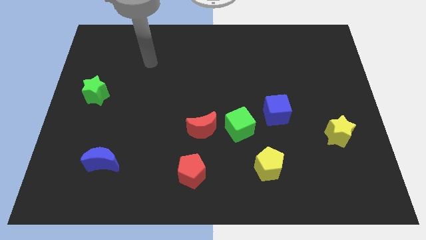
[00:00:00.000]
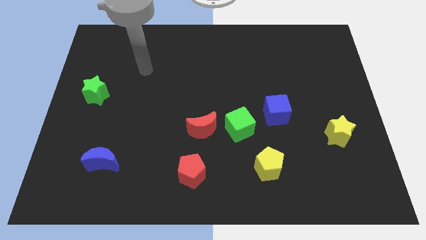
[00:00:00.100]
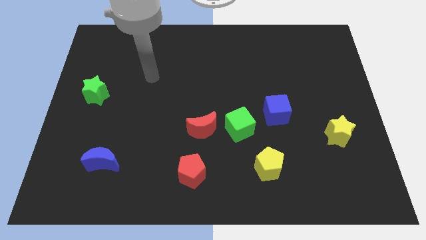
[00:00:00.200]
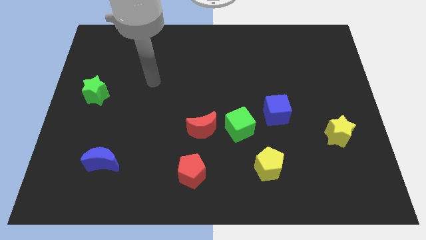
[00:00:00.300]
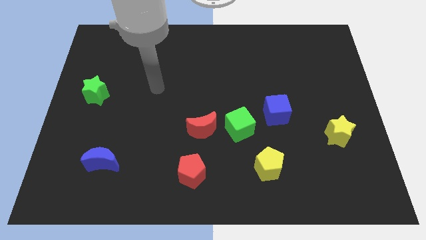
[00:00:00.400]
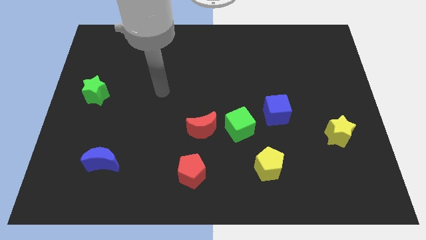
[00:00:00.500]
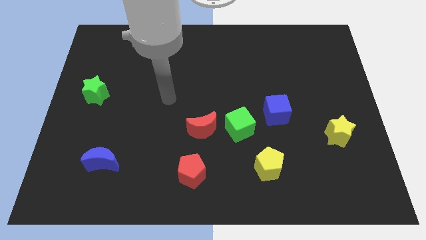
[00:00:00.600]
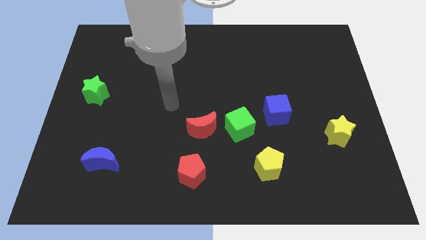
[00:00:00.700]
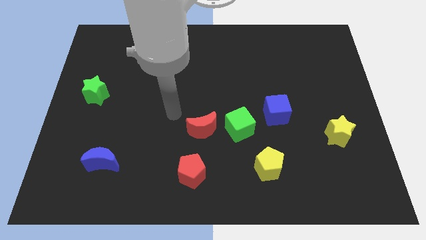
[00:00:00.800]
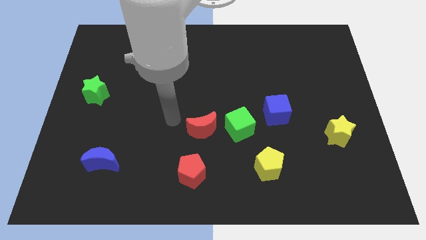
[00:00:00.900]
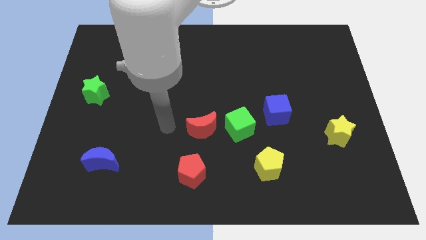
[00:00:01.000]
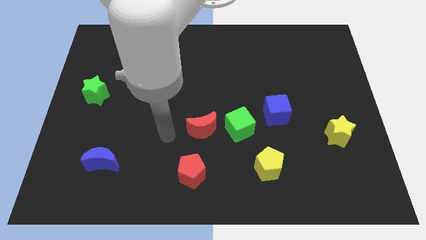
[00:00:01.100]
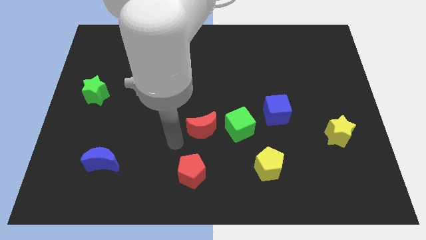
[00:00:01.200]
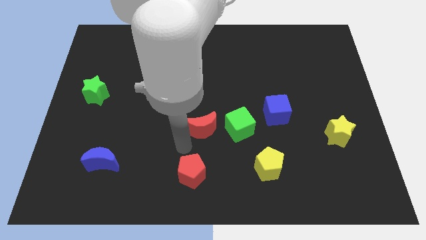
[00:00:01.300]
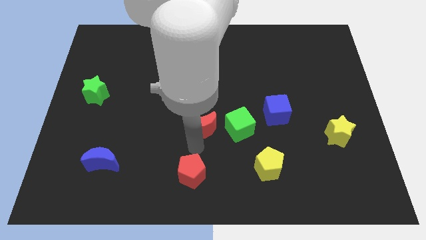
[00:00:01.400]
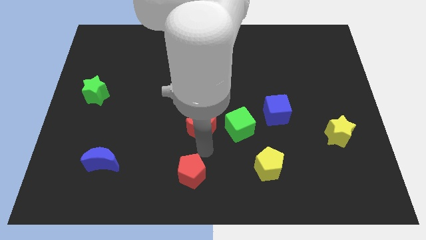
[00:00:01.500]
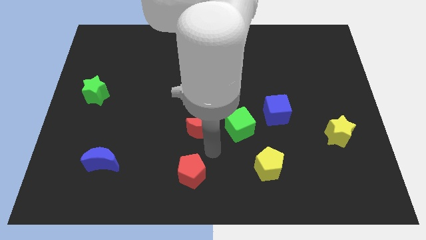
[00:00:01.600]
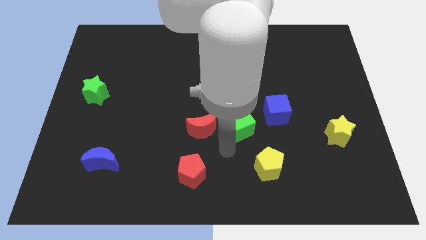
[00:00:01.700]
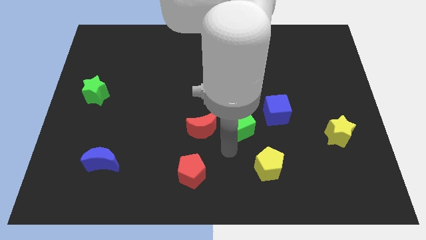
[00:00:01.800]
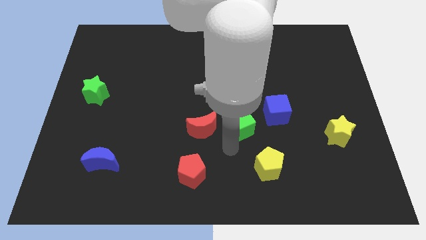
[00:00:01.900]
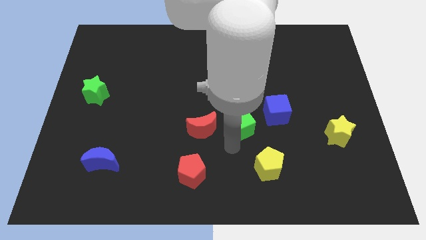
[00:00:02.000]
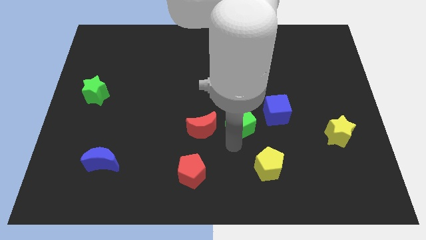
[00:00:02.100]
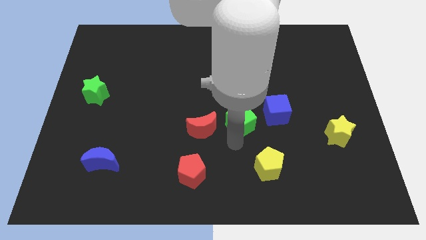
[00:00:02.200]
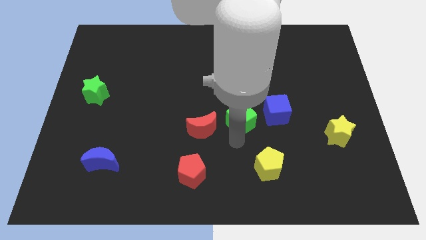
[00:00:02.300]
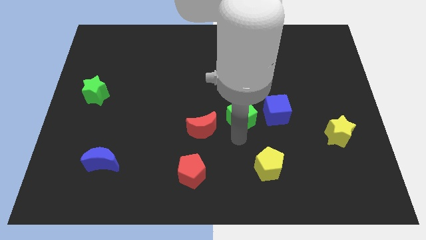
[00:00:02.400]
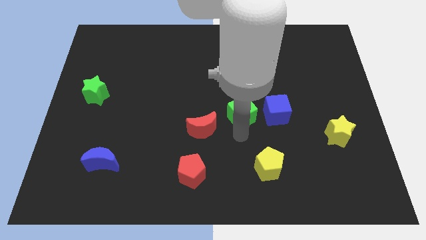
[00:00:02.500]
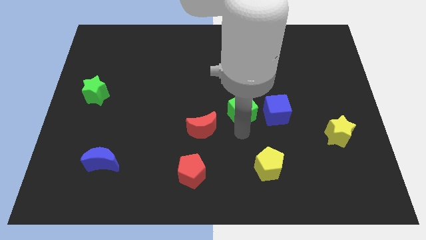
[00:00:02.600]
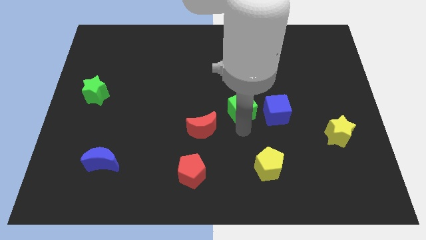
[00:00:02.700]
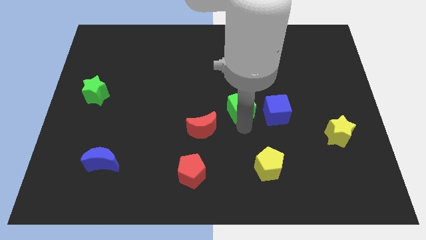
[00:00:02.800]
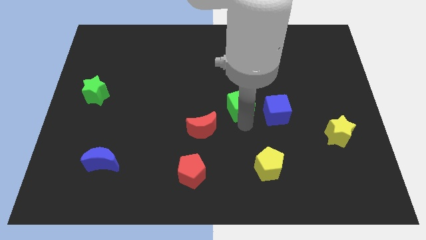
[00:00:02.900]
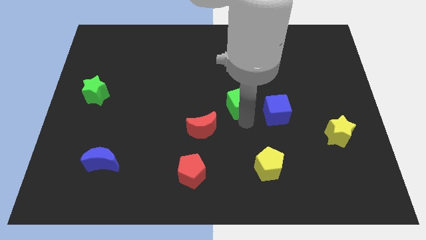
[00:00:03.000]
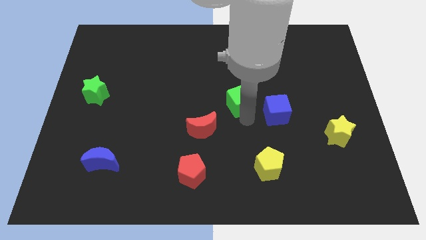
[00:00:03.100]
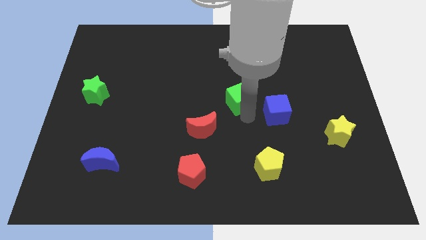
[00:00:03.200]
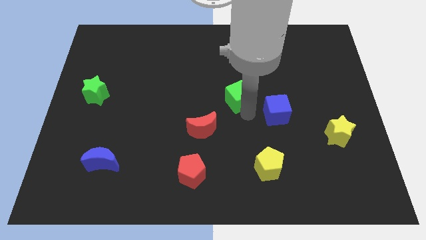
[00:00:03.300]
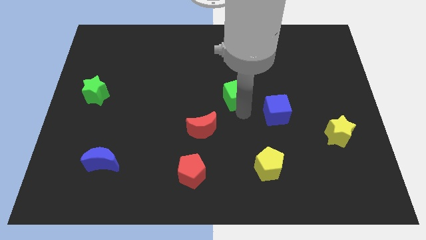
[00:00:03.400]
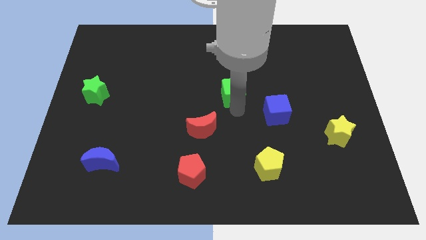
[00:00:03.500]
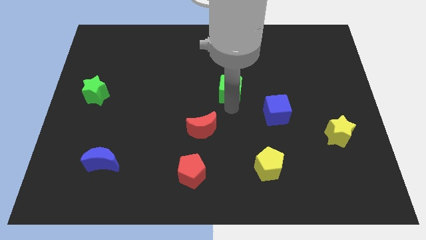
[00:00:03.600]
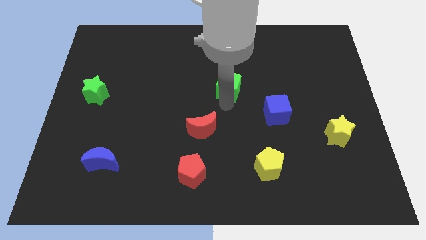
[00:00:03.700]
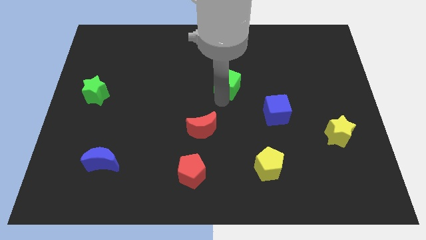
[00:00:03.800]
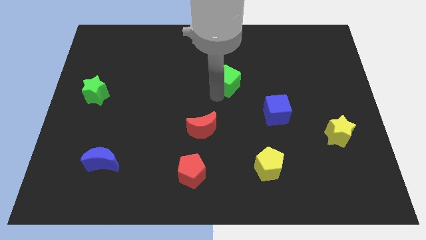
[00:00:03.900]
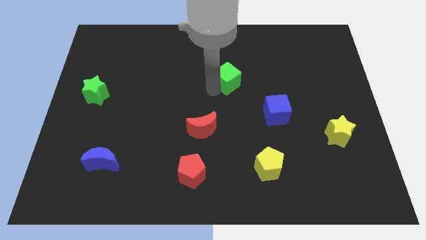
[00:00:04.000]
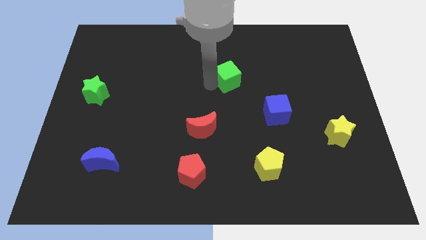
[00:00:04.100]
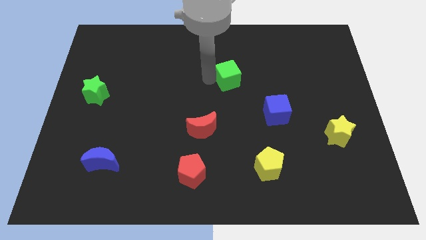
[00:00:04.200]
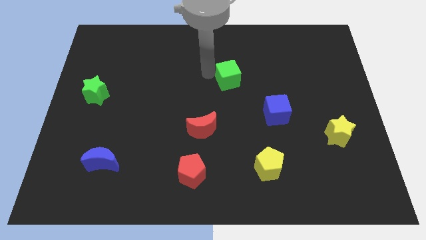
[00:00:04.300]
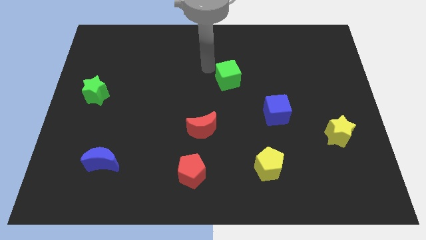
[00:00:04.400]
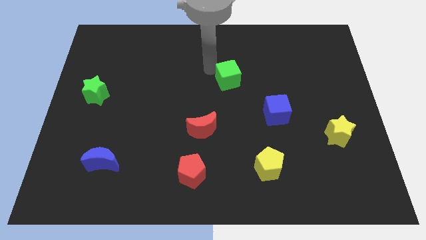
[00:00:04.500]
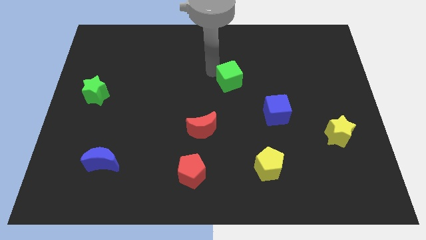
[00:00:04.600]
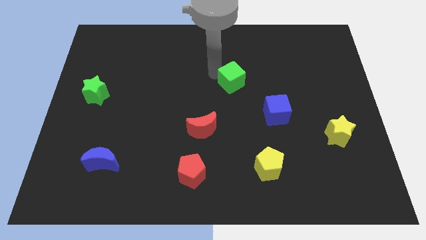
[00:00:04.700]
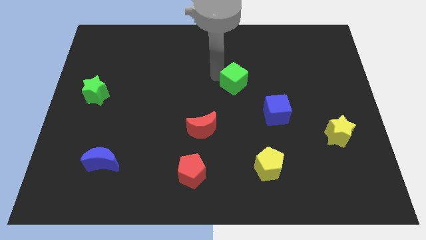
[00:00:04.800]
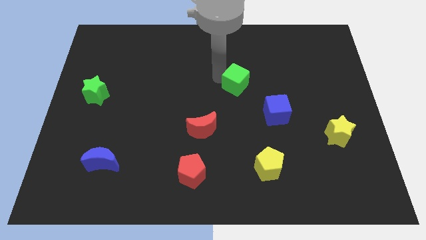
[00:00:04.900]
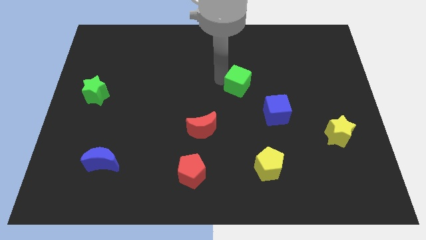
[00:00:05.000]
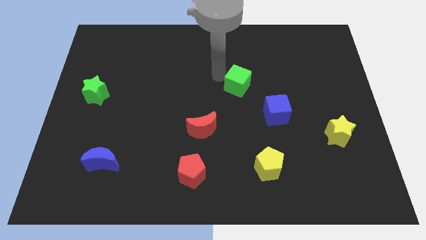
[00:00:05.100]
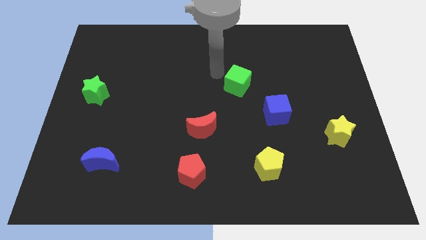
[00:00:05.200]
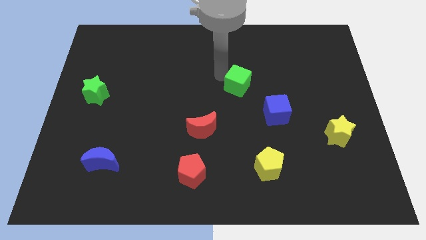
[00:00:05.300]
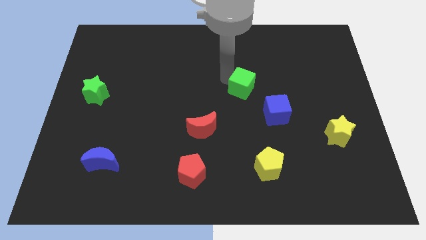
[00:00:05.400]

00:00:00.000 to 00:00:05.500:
slightly slide the green cube upwards and to the right diagonally

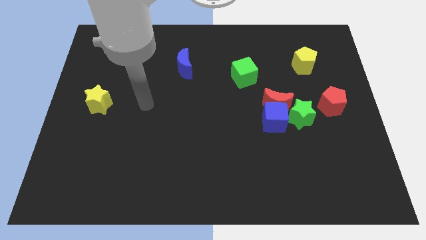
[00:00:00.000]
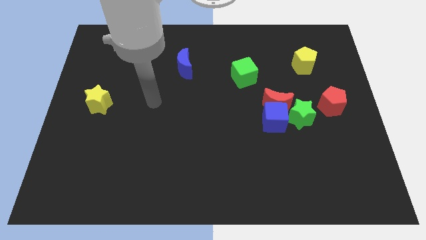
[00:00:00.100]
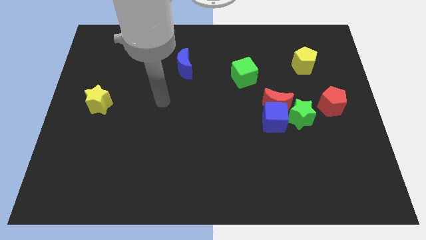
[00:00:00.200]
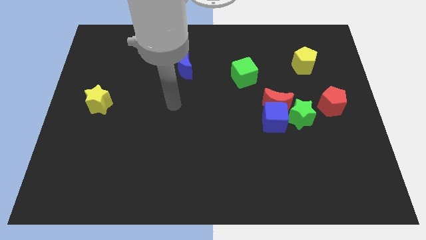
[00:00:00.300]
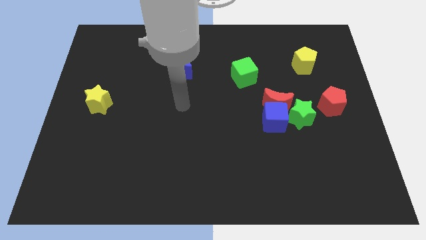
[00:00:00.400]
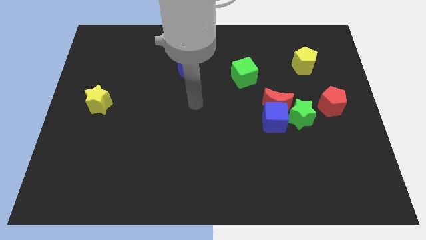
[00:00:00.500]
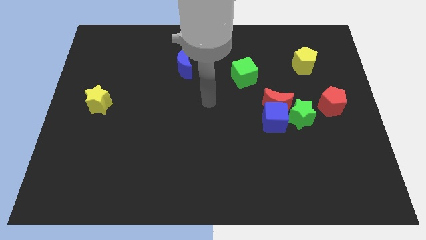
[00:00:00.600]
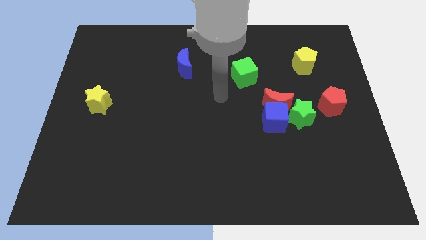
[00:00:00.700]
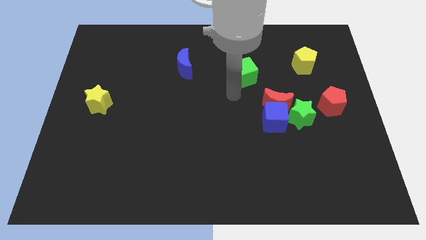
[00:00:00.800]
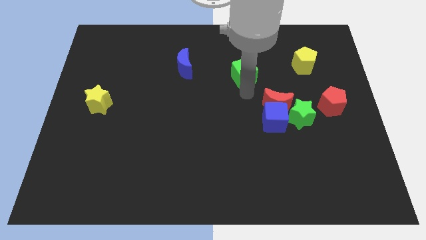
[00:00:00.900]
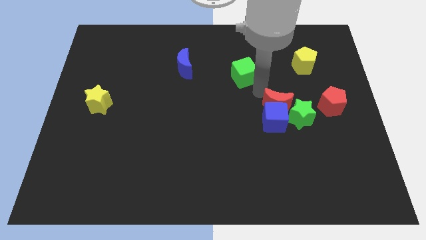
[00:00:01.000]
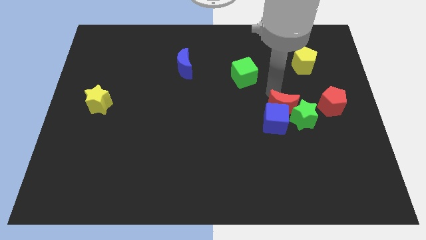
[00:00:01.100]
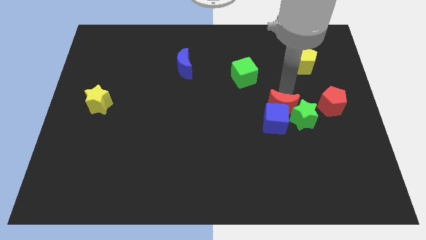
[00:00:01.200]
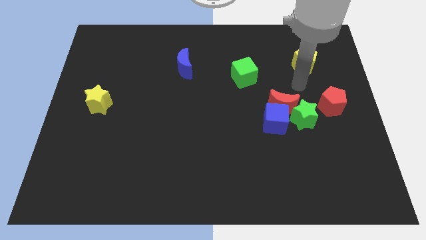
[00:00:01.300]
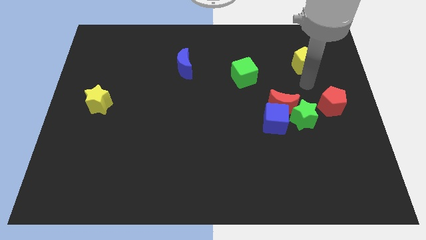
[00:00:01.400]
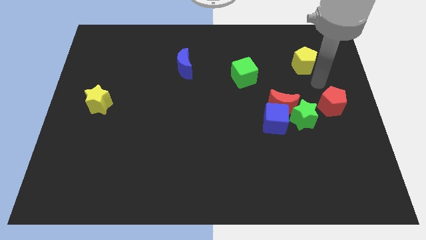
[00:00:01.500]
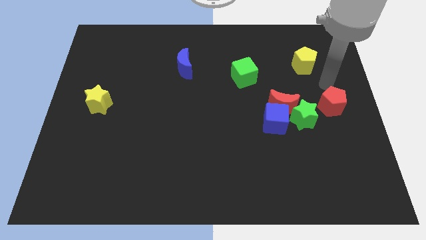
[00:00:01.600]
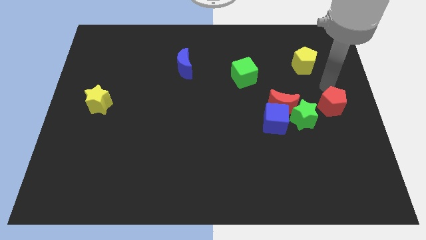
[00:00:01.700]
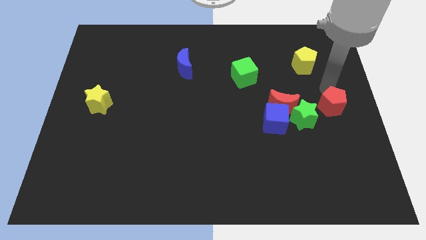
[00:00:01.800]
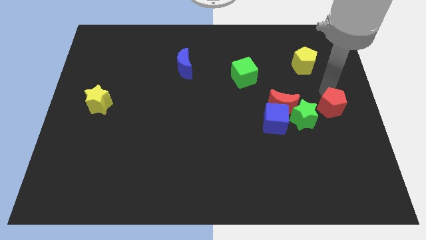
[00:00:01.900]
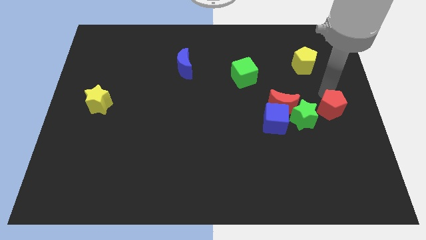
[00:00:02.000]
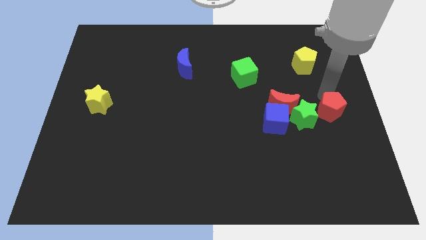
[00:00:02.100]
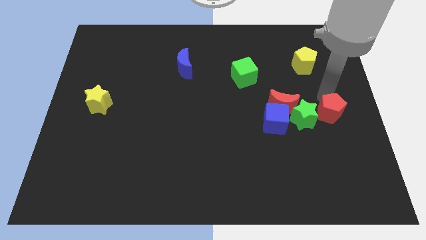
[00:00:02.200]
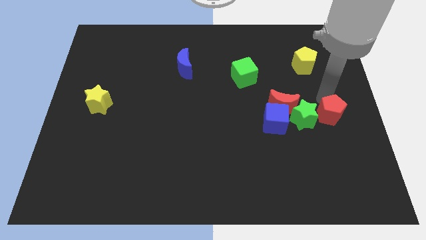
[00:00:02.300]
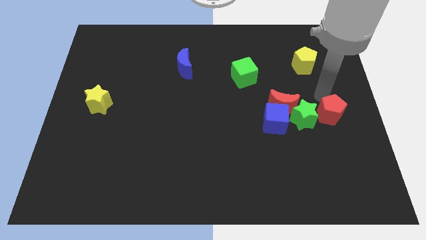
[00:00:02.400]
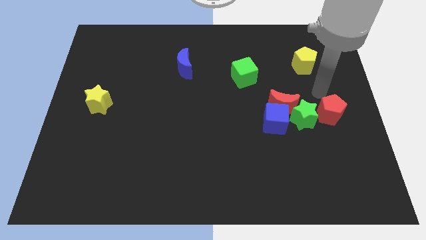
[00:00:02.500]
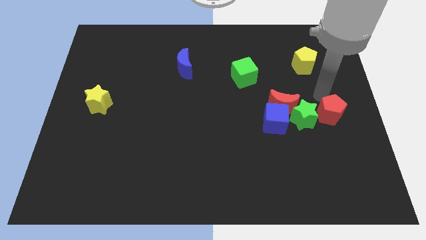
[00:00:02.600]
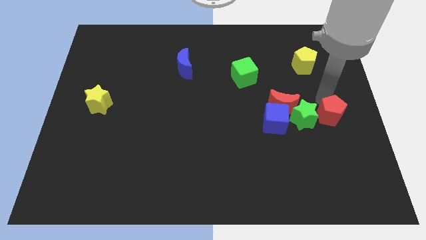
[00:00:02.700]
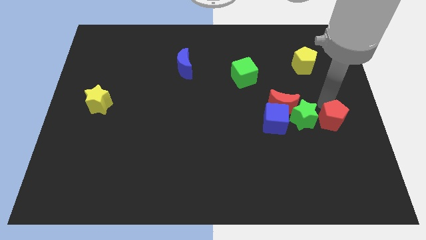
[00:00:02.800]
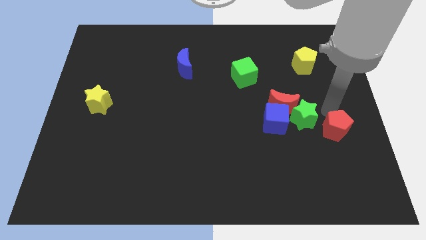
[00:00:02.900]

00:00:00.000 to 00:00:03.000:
push the red pentagon downwards a bit
